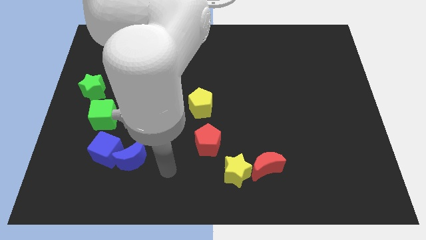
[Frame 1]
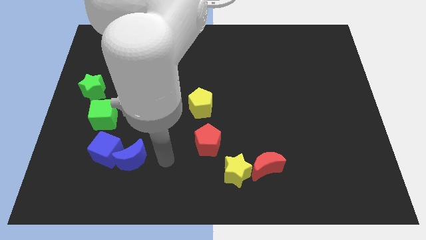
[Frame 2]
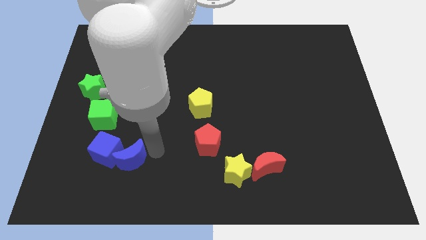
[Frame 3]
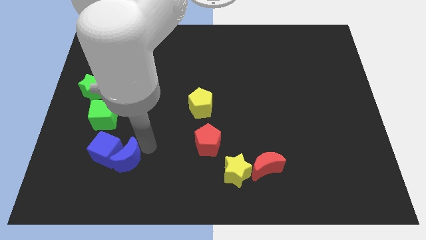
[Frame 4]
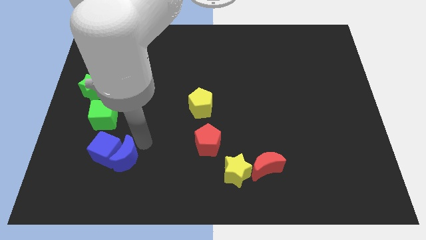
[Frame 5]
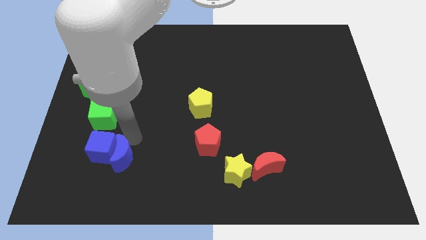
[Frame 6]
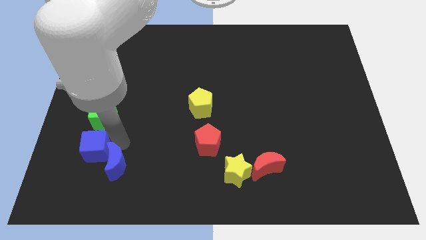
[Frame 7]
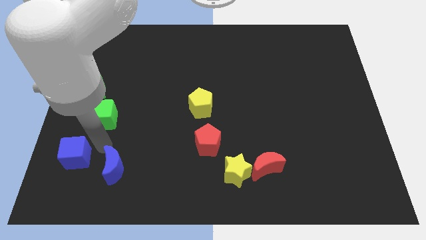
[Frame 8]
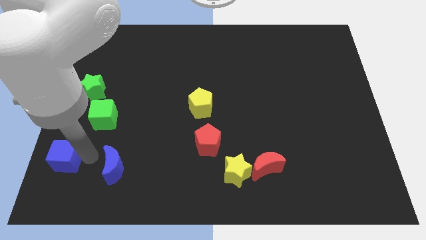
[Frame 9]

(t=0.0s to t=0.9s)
pull the blue moon apart from the blue cube

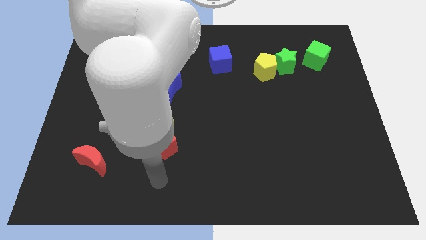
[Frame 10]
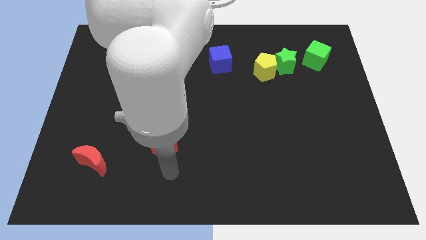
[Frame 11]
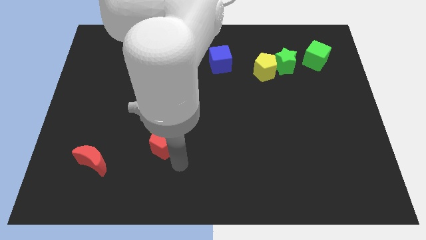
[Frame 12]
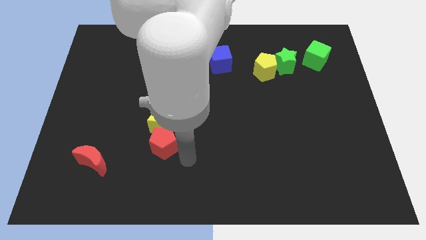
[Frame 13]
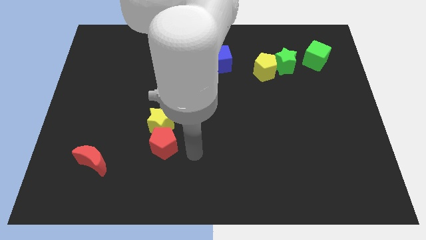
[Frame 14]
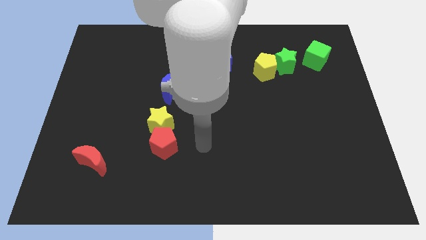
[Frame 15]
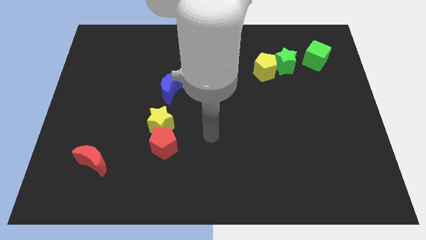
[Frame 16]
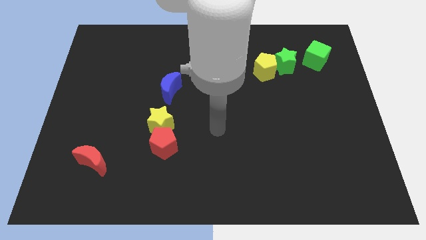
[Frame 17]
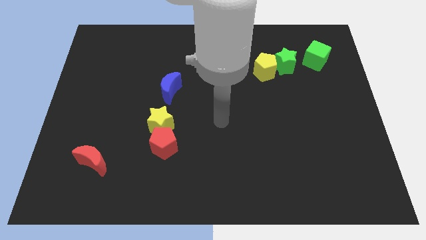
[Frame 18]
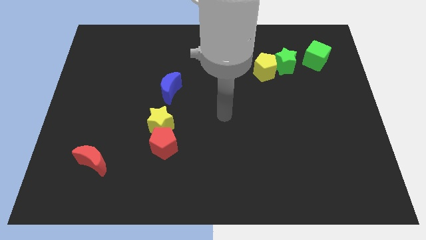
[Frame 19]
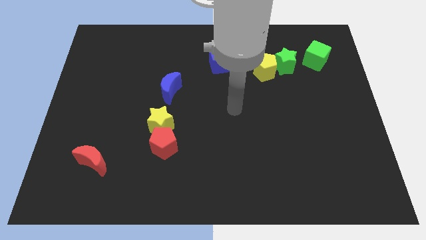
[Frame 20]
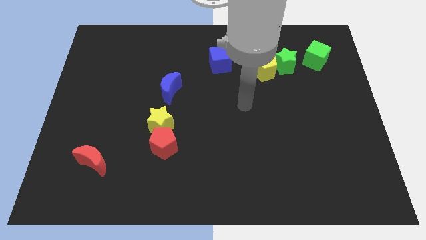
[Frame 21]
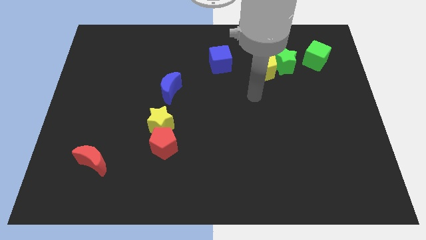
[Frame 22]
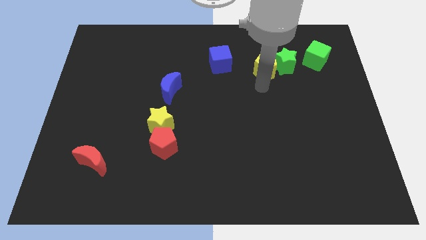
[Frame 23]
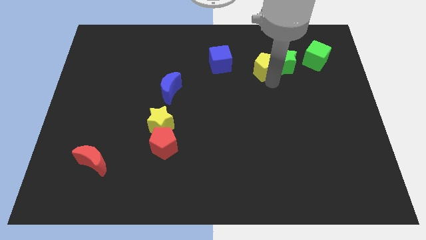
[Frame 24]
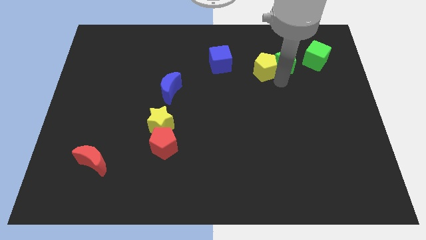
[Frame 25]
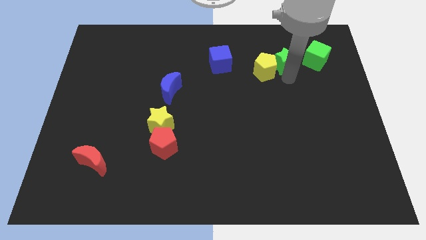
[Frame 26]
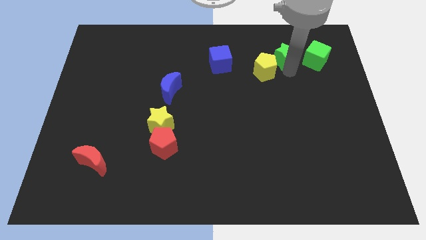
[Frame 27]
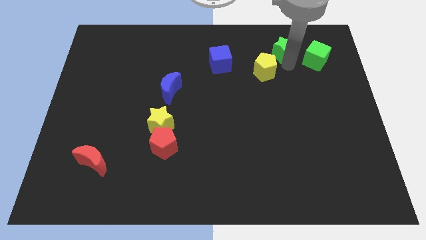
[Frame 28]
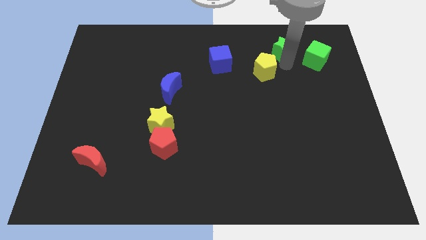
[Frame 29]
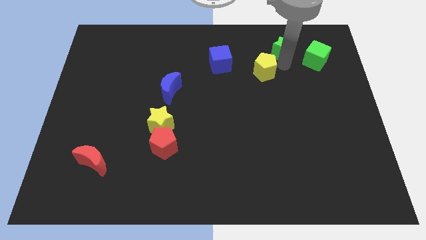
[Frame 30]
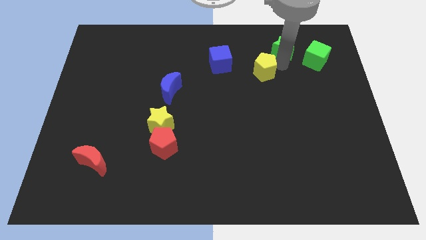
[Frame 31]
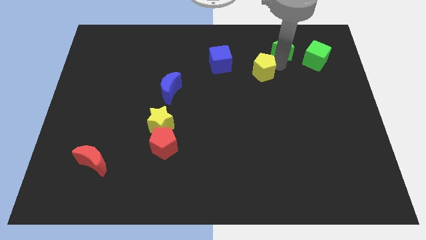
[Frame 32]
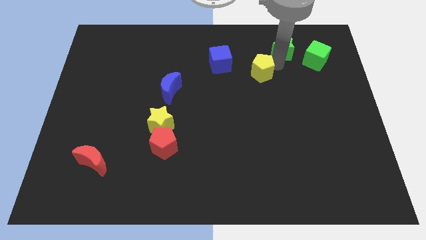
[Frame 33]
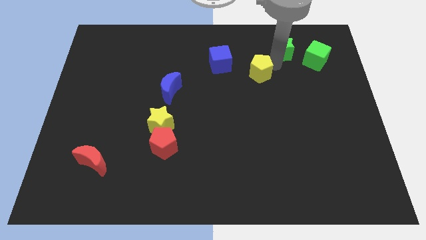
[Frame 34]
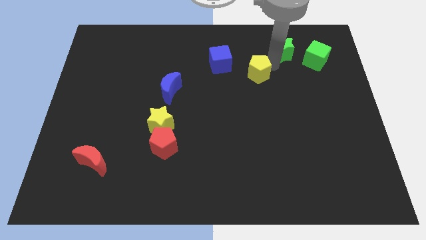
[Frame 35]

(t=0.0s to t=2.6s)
separate the yellow pentagon from the green star

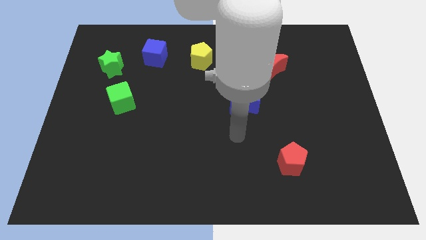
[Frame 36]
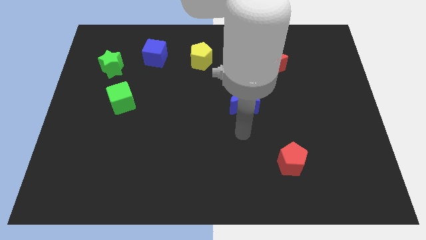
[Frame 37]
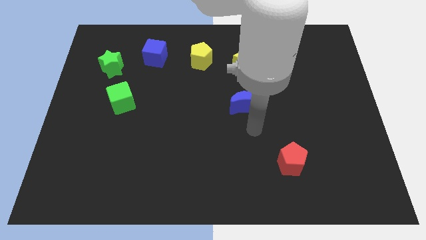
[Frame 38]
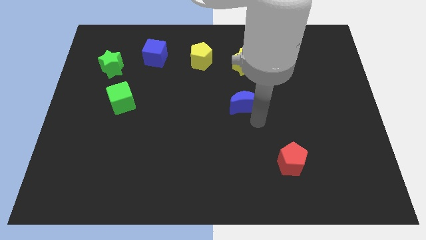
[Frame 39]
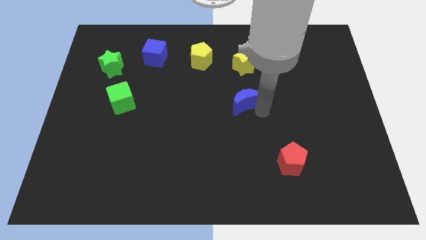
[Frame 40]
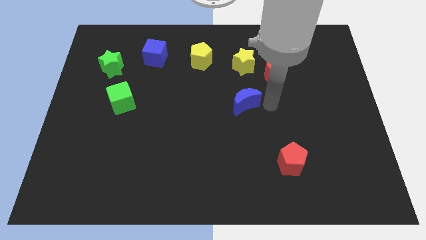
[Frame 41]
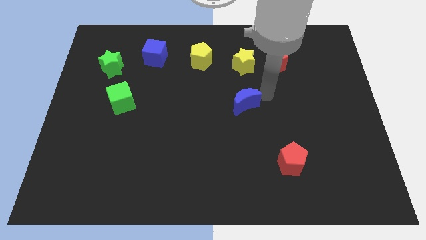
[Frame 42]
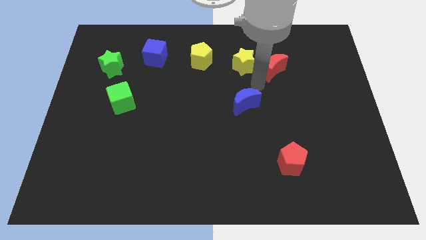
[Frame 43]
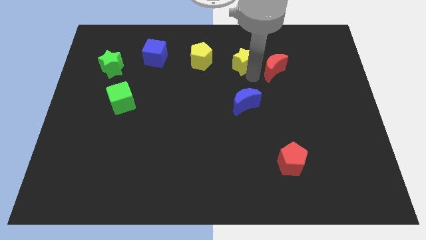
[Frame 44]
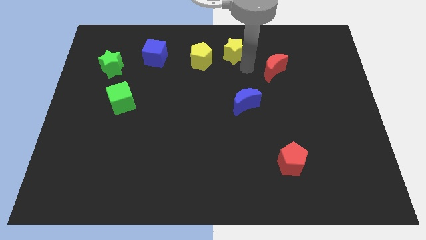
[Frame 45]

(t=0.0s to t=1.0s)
pull the red moon apart from the yellow star

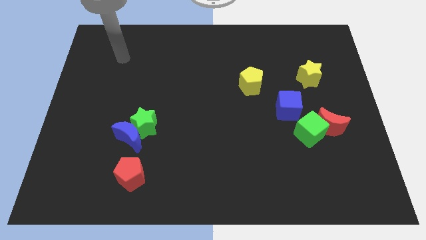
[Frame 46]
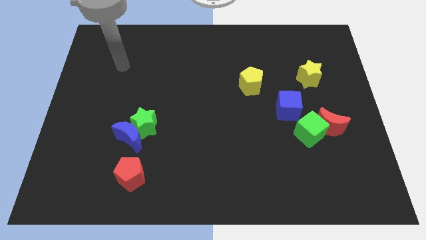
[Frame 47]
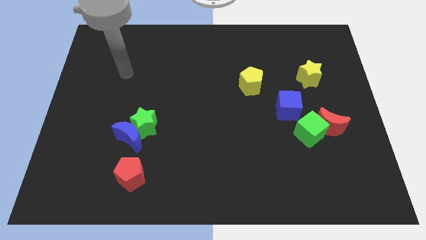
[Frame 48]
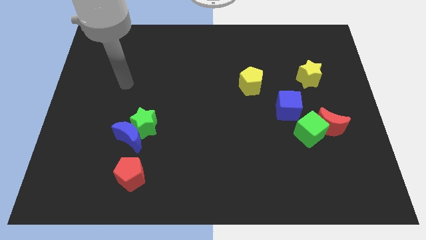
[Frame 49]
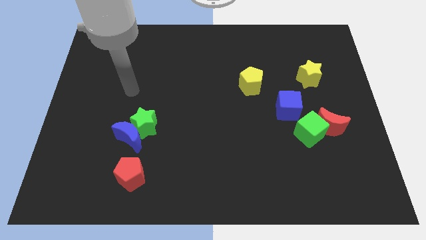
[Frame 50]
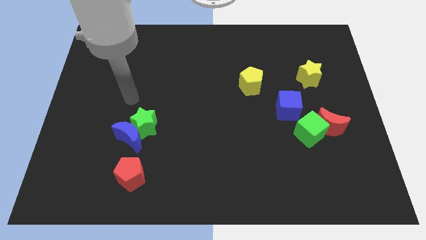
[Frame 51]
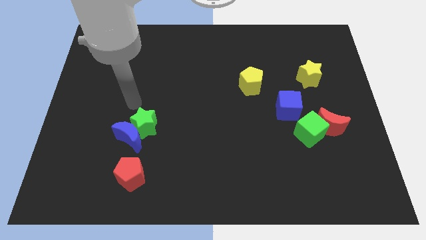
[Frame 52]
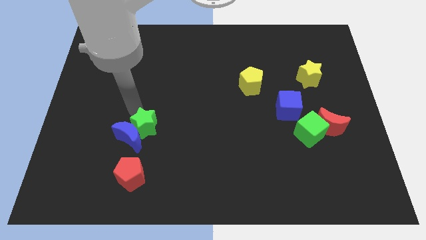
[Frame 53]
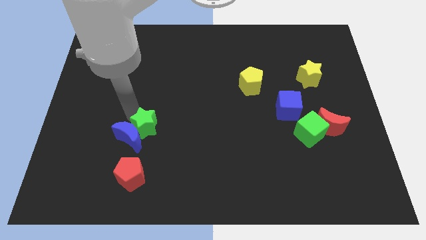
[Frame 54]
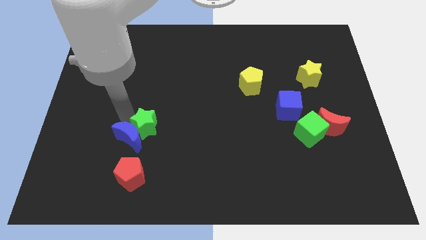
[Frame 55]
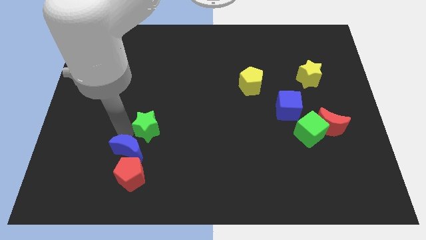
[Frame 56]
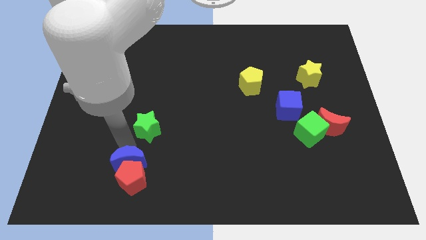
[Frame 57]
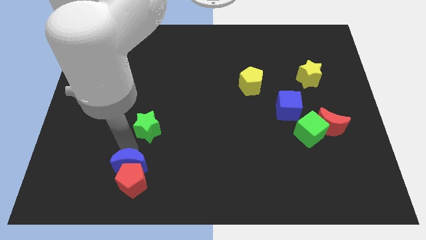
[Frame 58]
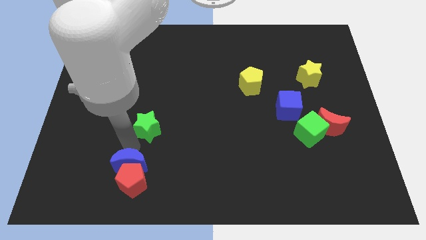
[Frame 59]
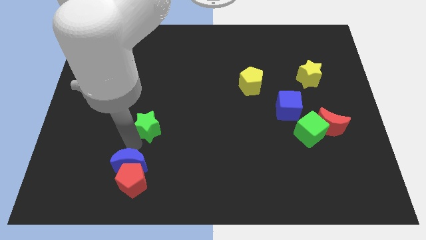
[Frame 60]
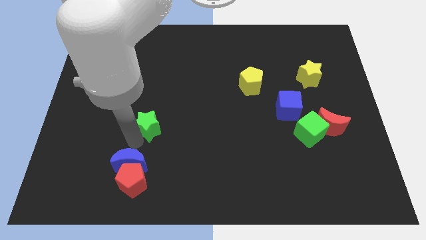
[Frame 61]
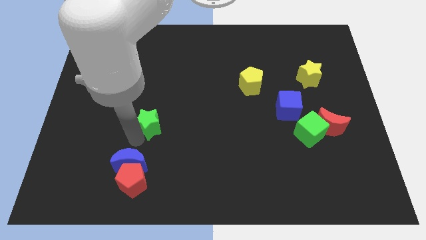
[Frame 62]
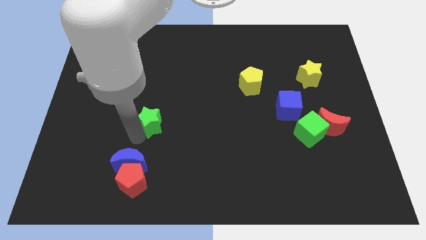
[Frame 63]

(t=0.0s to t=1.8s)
move the green star away from the blue moon

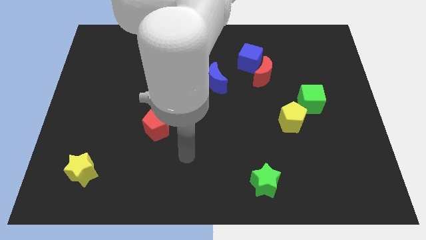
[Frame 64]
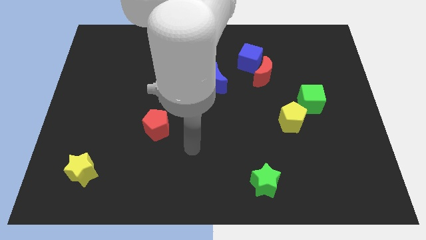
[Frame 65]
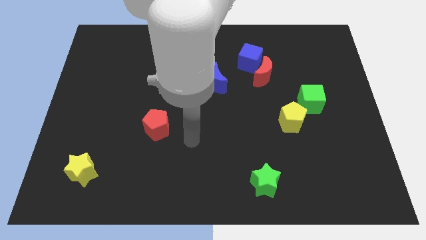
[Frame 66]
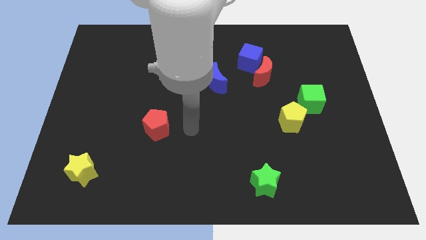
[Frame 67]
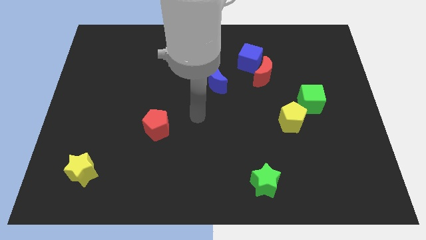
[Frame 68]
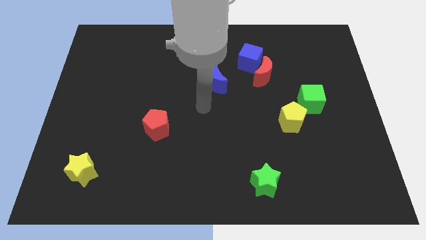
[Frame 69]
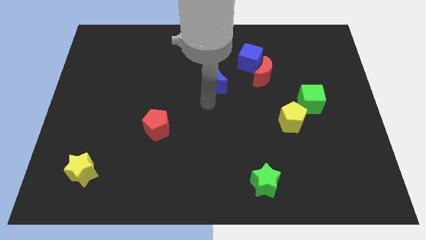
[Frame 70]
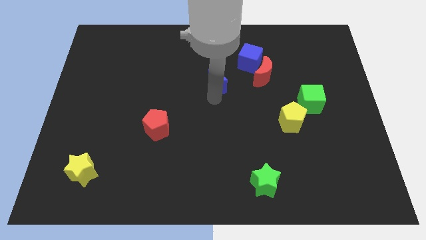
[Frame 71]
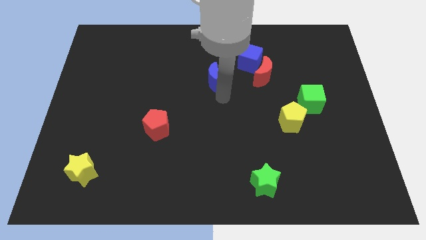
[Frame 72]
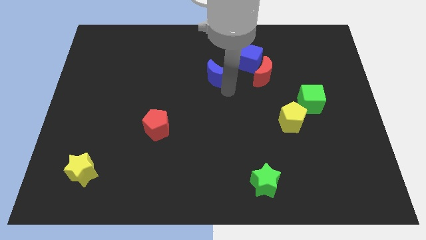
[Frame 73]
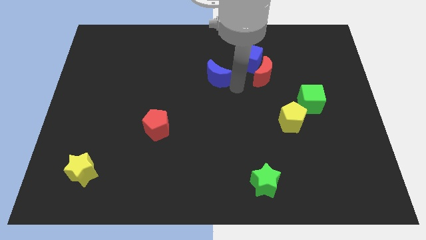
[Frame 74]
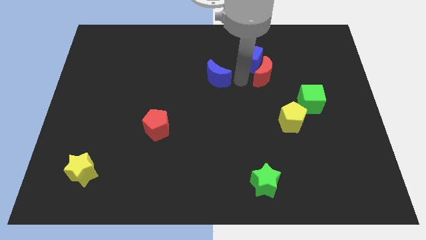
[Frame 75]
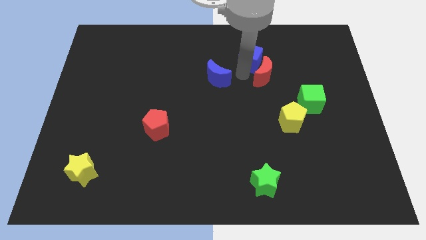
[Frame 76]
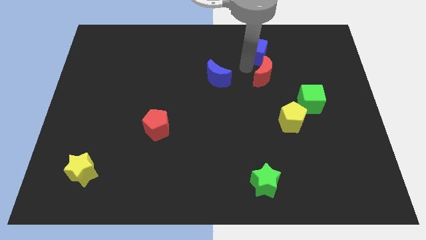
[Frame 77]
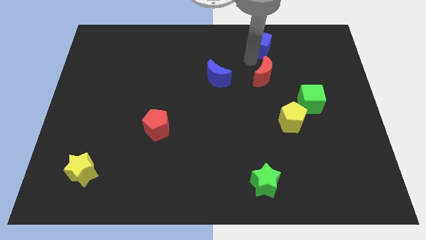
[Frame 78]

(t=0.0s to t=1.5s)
move the red moon away from the blue cube

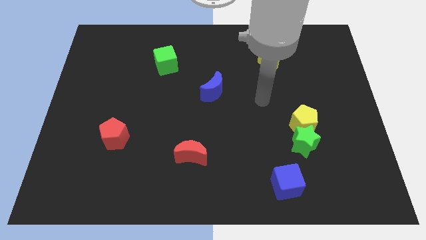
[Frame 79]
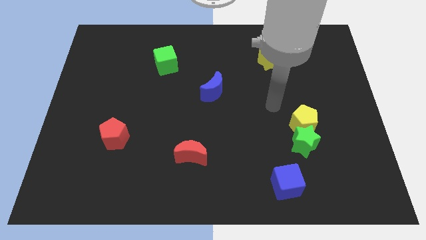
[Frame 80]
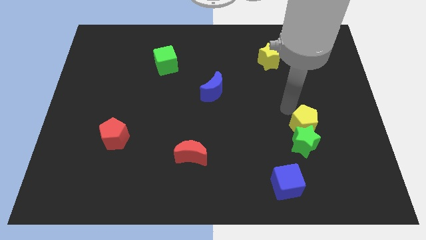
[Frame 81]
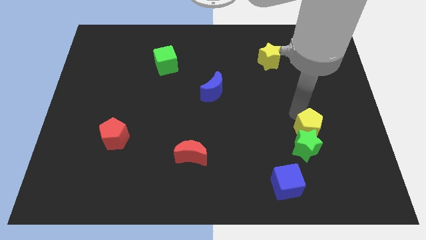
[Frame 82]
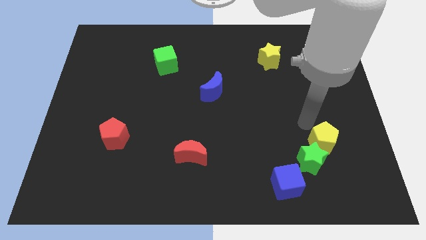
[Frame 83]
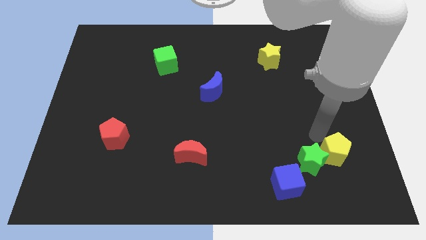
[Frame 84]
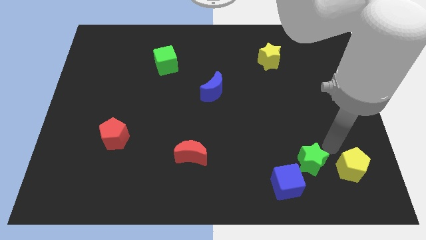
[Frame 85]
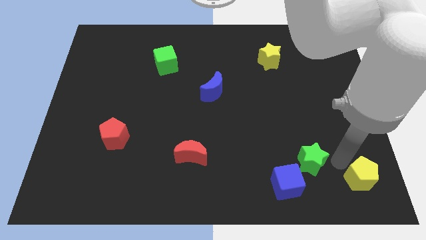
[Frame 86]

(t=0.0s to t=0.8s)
pull the green star apart from the yellow pentagon

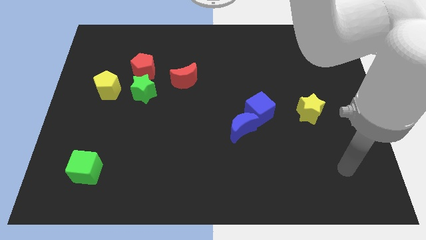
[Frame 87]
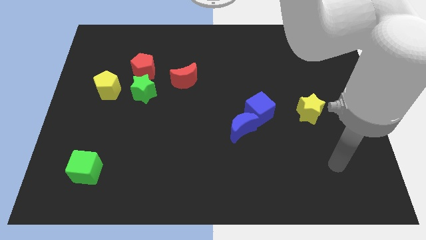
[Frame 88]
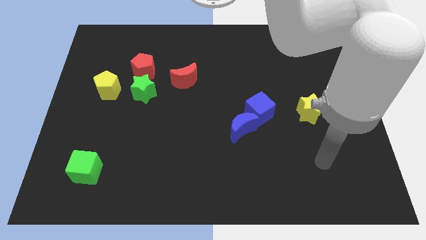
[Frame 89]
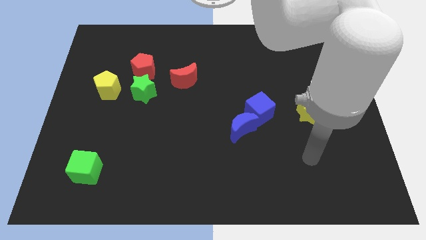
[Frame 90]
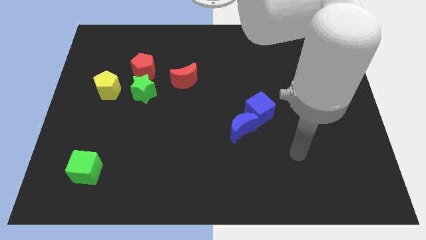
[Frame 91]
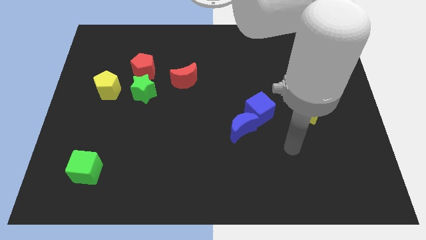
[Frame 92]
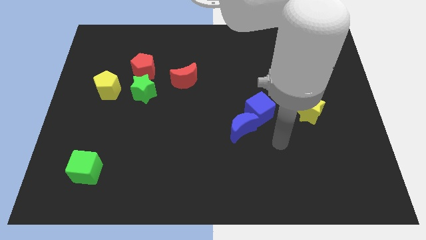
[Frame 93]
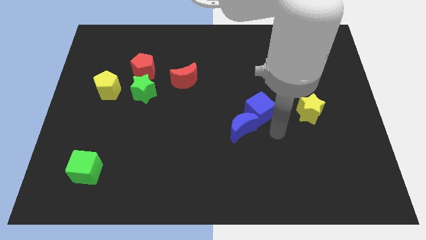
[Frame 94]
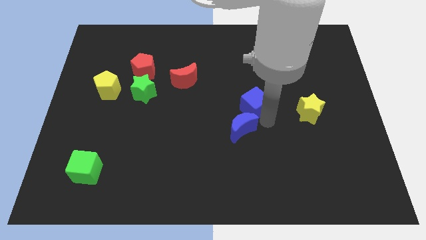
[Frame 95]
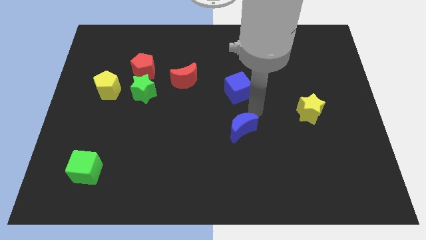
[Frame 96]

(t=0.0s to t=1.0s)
move the blue moon away from the blue cube
